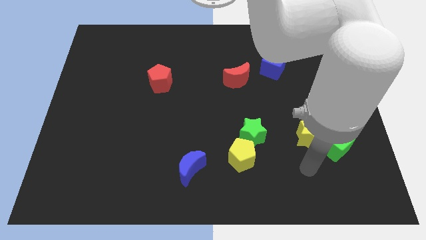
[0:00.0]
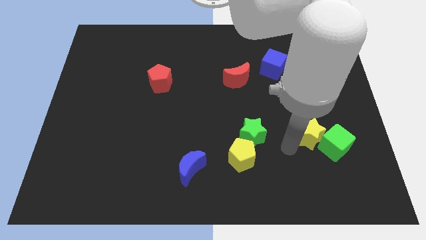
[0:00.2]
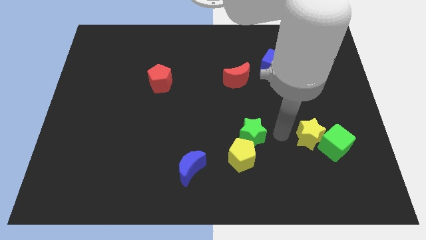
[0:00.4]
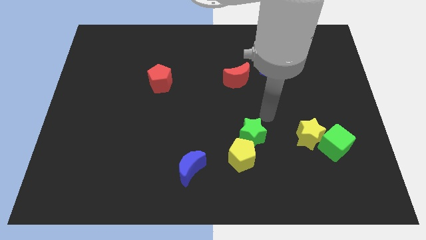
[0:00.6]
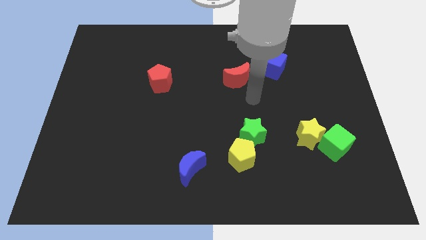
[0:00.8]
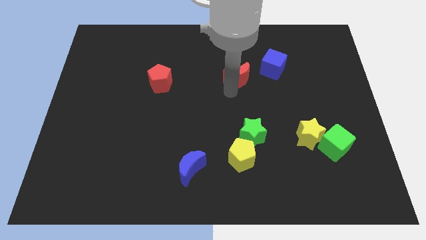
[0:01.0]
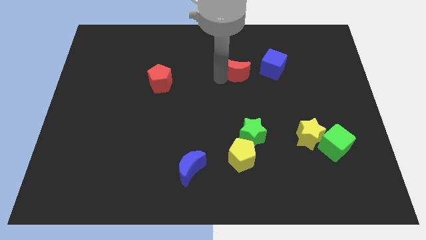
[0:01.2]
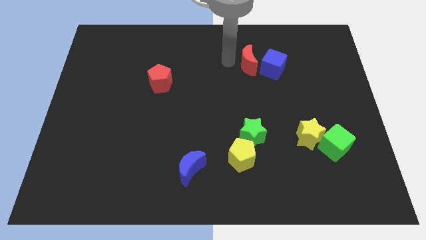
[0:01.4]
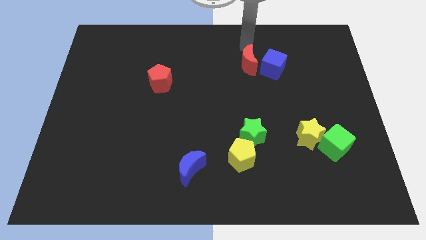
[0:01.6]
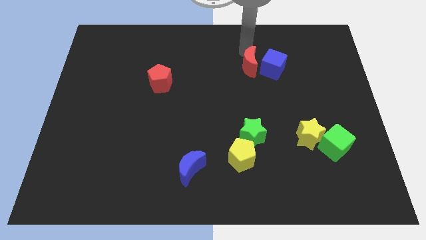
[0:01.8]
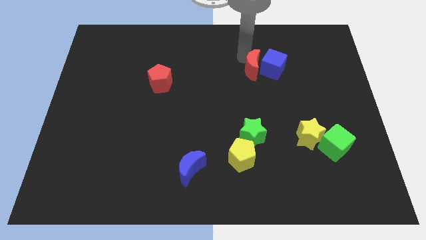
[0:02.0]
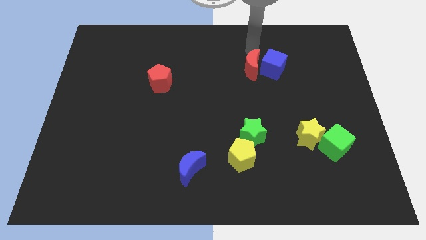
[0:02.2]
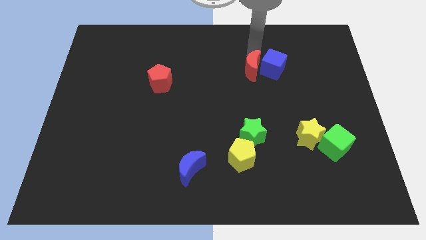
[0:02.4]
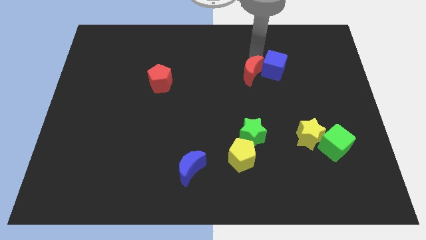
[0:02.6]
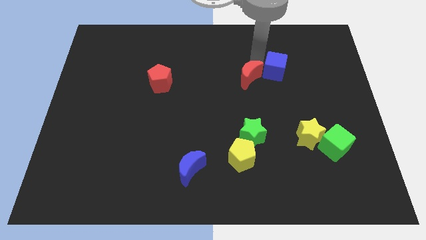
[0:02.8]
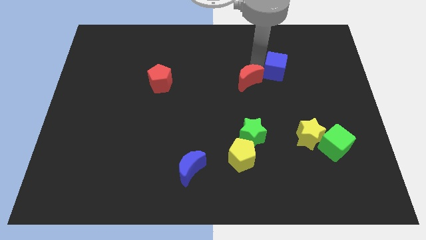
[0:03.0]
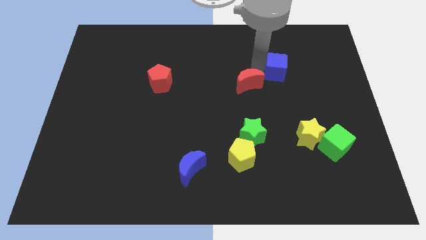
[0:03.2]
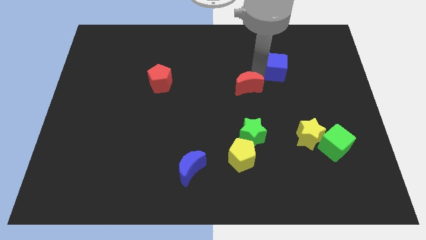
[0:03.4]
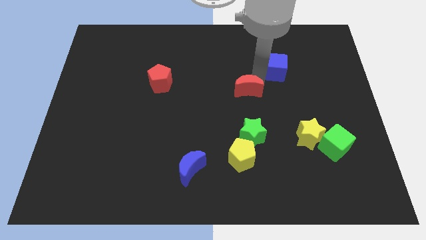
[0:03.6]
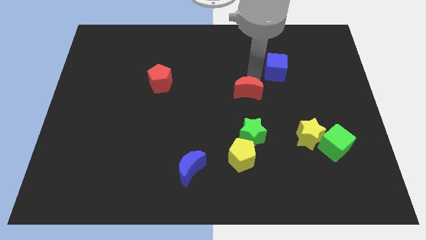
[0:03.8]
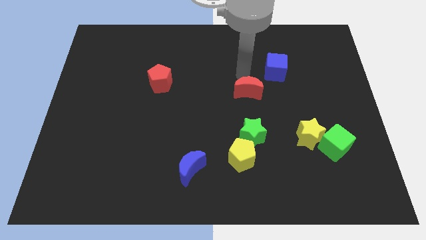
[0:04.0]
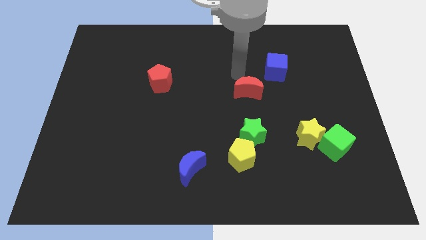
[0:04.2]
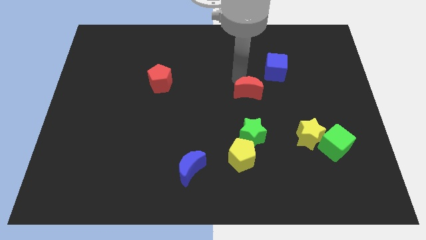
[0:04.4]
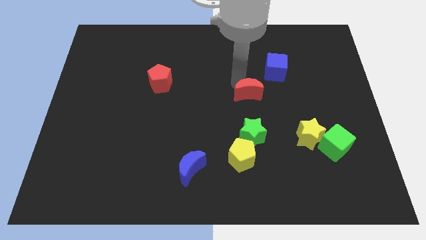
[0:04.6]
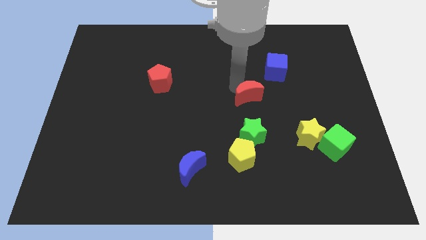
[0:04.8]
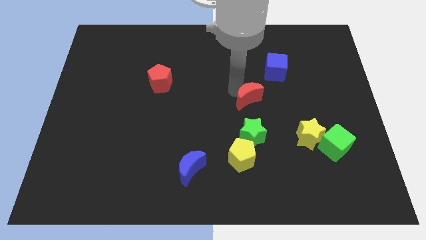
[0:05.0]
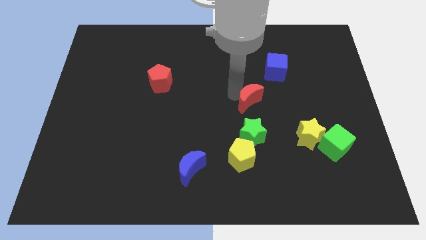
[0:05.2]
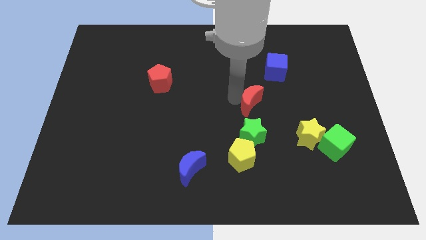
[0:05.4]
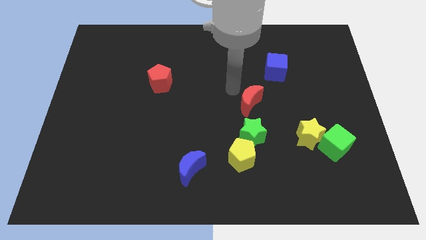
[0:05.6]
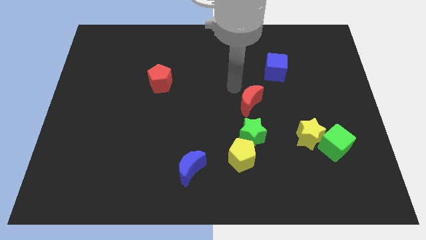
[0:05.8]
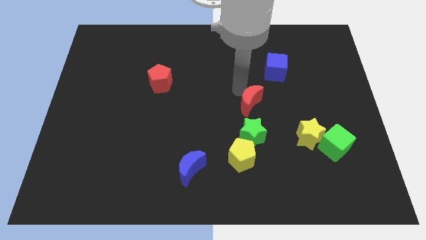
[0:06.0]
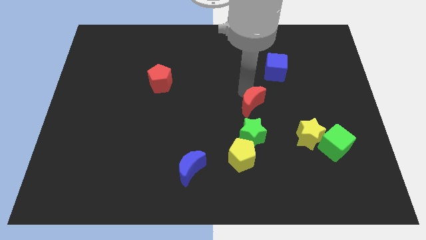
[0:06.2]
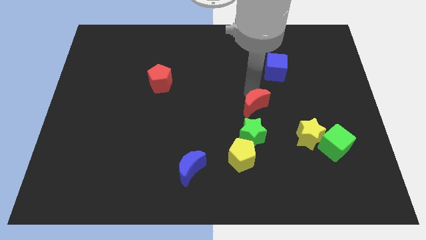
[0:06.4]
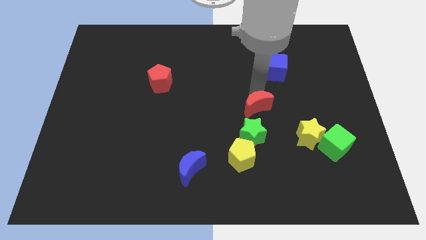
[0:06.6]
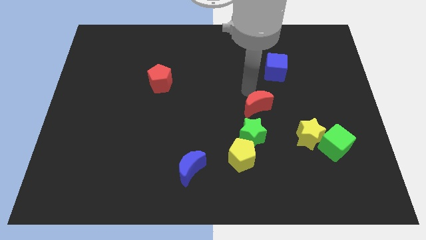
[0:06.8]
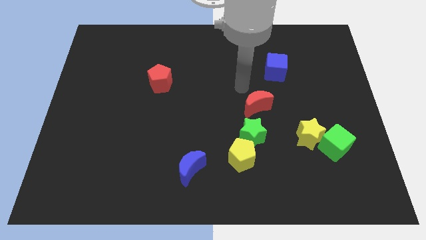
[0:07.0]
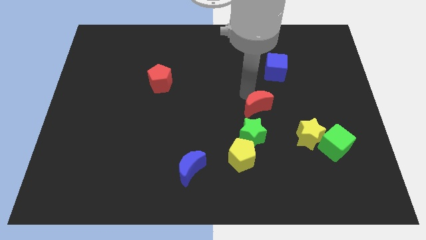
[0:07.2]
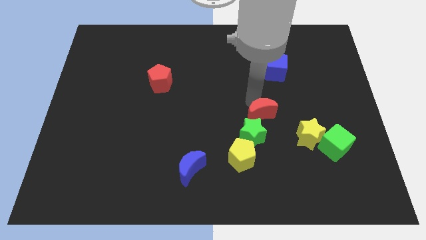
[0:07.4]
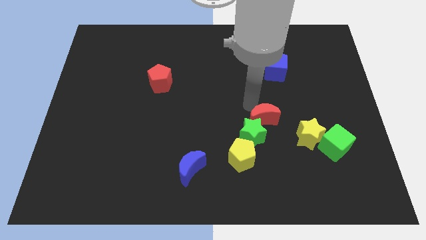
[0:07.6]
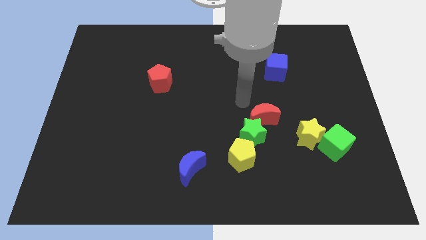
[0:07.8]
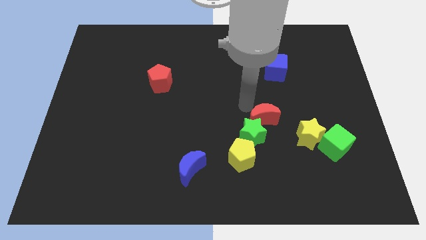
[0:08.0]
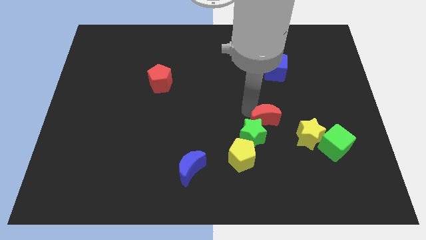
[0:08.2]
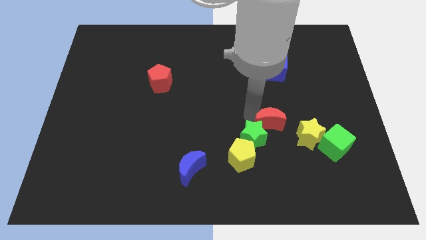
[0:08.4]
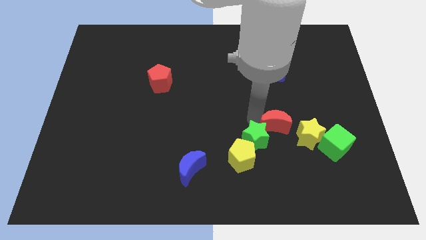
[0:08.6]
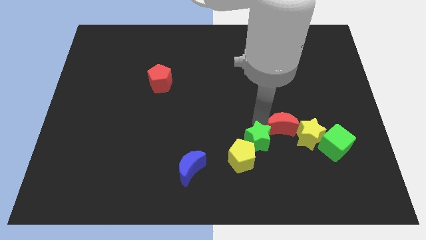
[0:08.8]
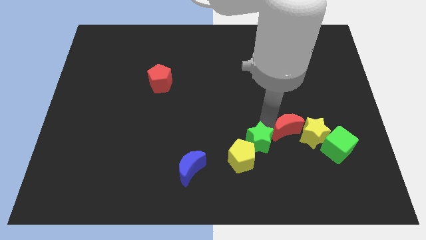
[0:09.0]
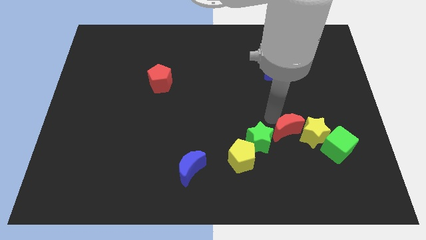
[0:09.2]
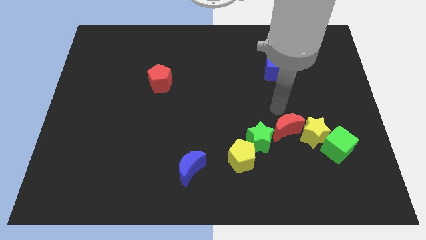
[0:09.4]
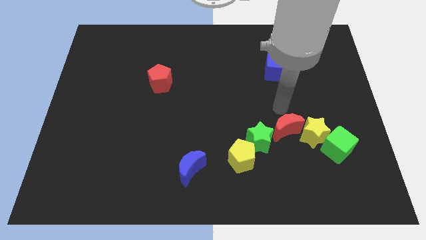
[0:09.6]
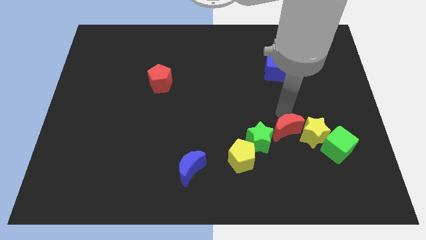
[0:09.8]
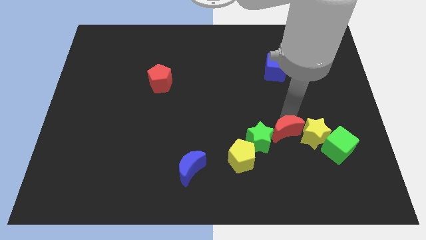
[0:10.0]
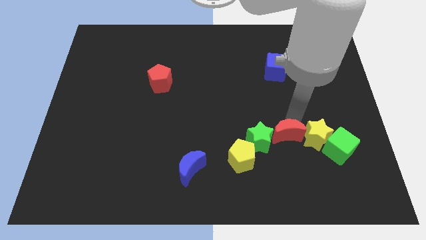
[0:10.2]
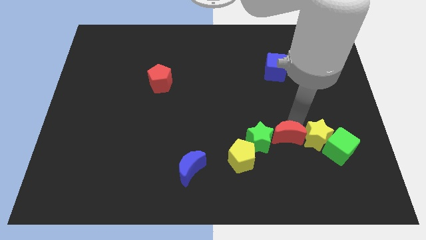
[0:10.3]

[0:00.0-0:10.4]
put the red moon diagonally down and to the left of the yellow star

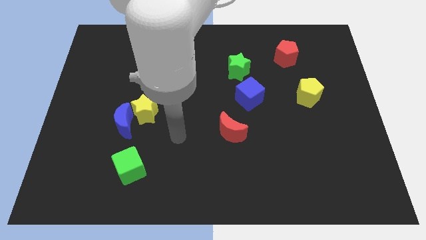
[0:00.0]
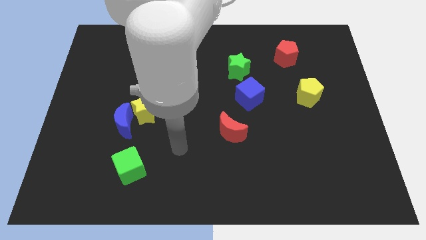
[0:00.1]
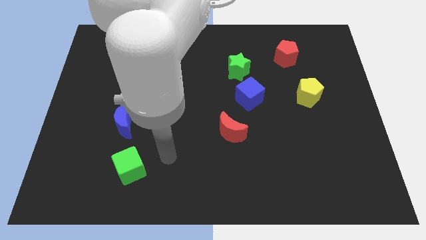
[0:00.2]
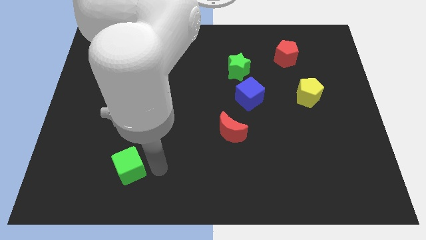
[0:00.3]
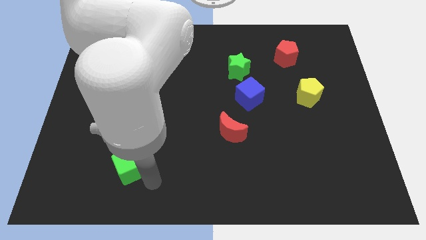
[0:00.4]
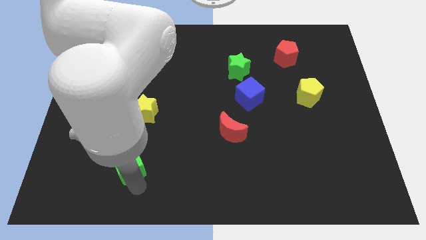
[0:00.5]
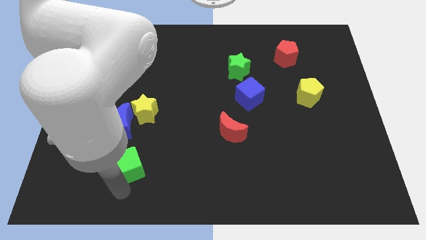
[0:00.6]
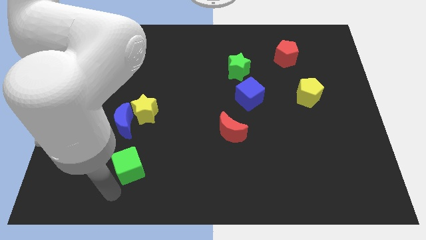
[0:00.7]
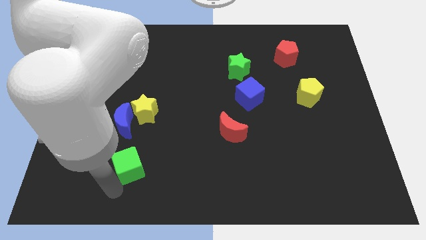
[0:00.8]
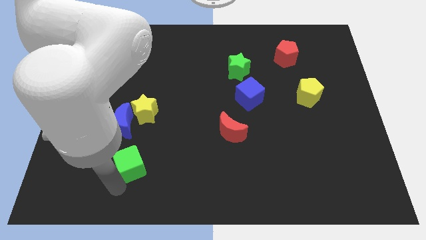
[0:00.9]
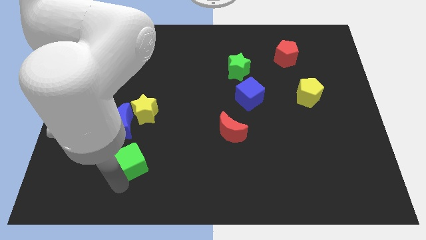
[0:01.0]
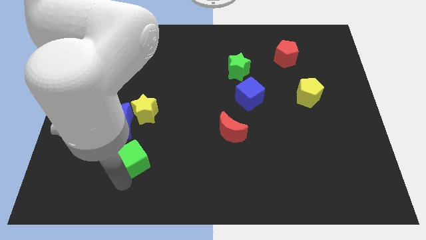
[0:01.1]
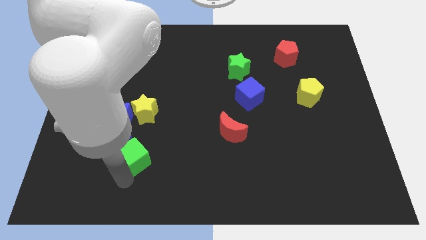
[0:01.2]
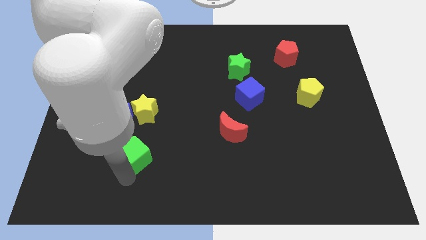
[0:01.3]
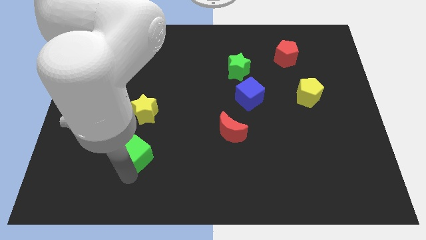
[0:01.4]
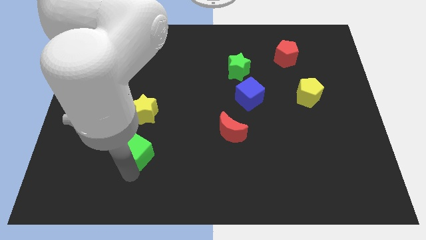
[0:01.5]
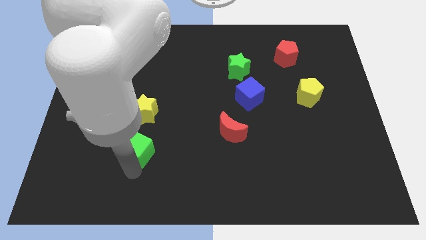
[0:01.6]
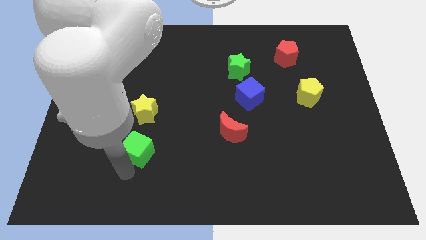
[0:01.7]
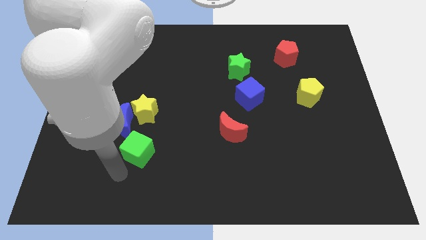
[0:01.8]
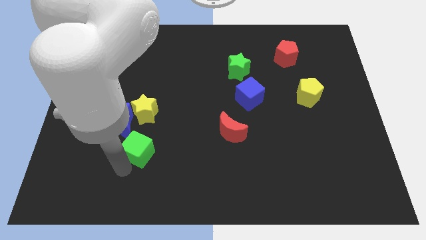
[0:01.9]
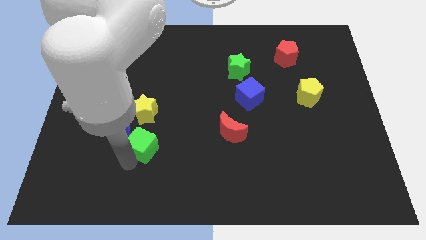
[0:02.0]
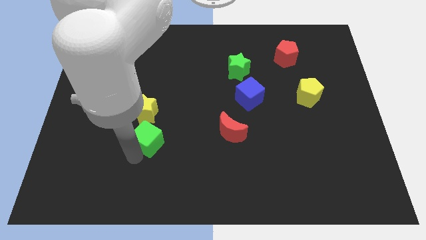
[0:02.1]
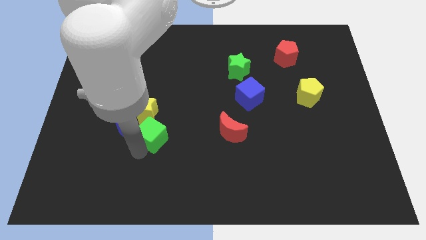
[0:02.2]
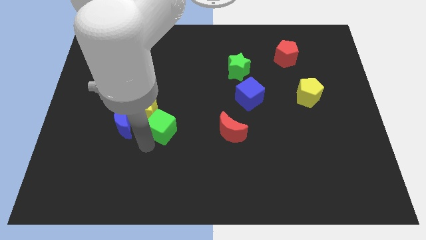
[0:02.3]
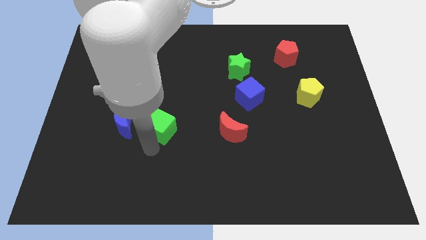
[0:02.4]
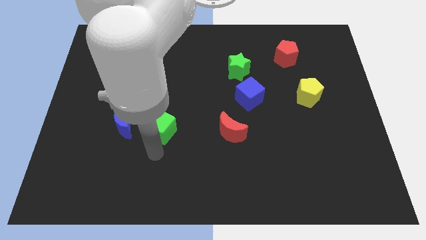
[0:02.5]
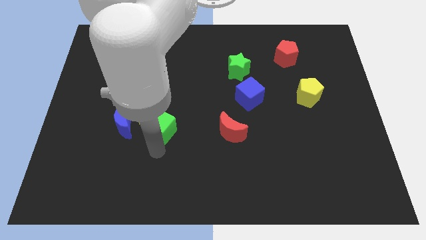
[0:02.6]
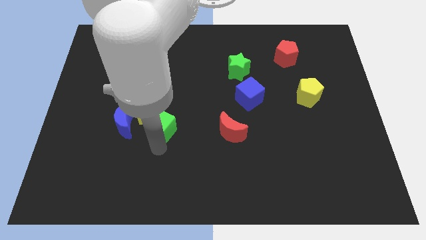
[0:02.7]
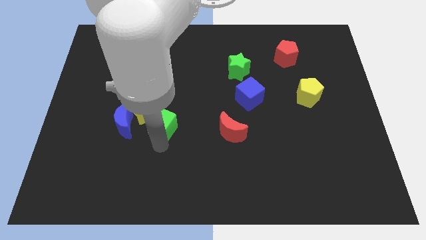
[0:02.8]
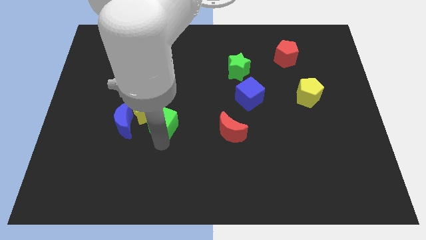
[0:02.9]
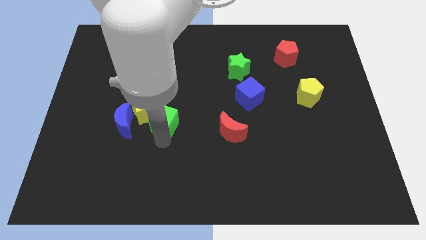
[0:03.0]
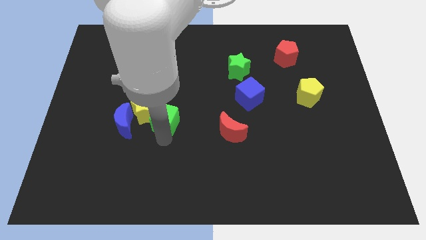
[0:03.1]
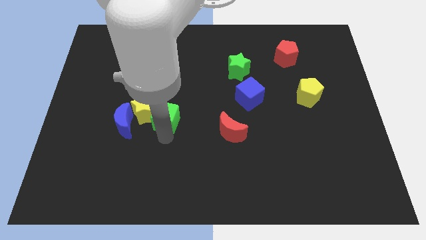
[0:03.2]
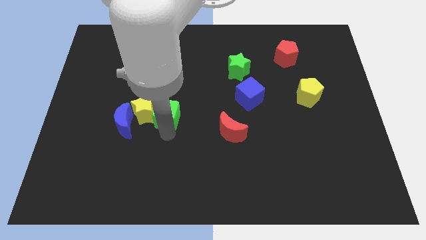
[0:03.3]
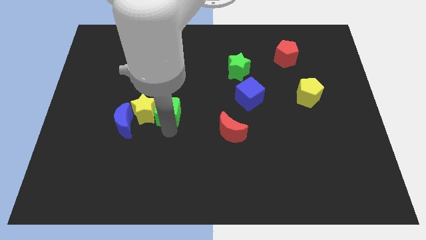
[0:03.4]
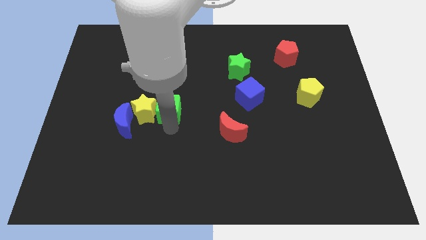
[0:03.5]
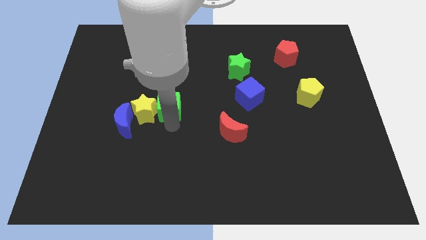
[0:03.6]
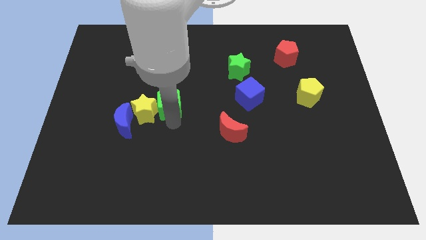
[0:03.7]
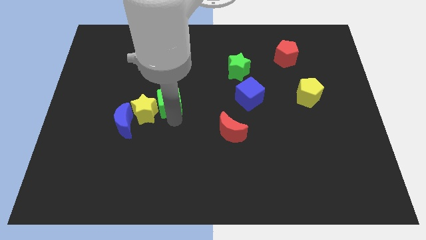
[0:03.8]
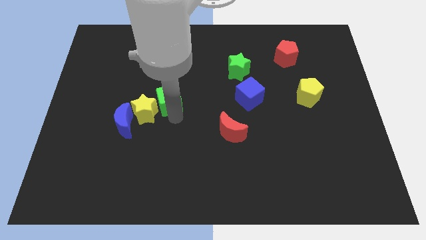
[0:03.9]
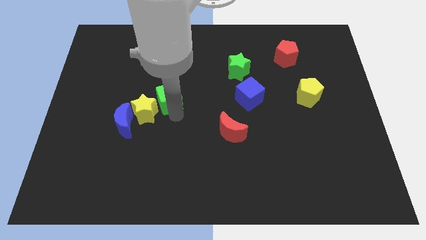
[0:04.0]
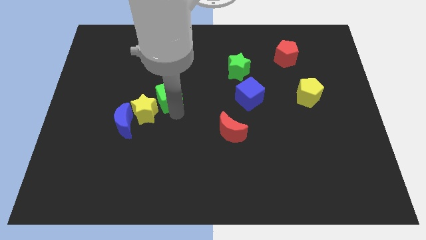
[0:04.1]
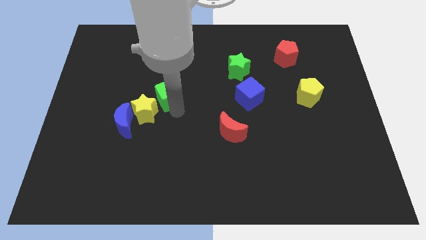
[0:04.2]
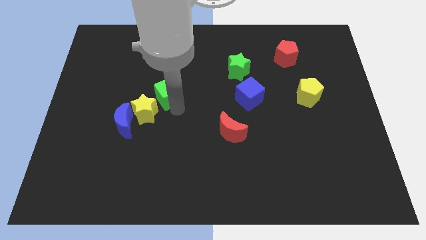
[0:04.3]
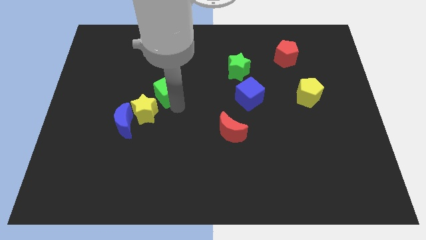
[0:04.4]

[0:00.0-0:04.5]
put the green cube to the top of the yellow star
